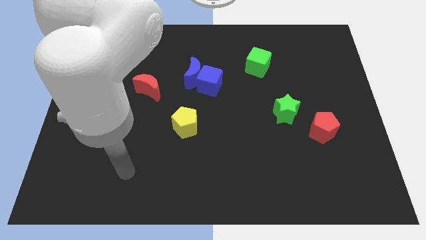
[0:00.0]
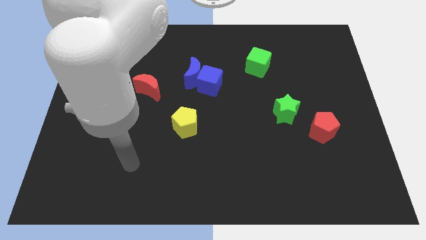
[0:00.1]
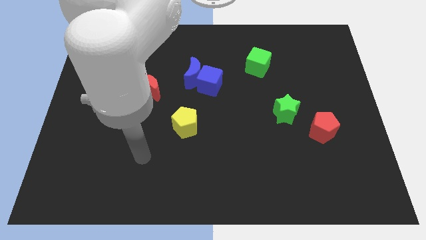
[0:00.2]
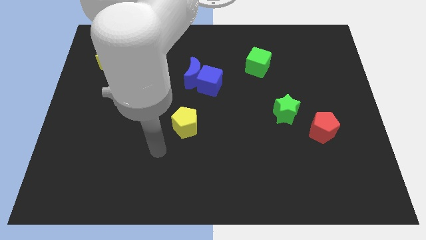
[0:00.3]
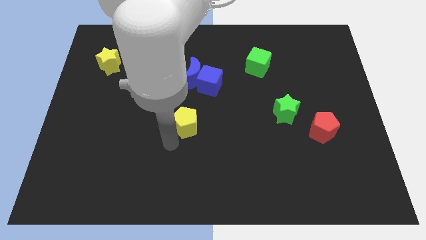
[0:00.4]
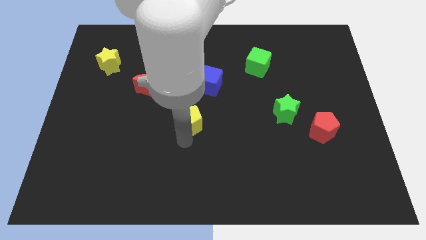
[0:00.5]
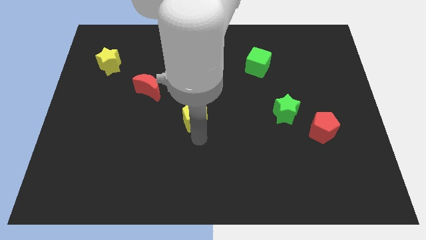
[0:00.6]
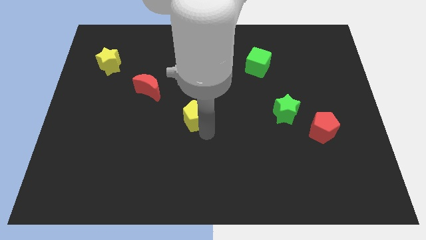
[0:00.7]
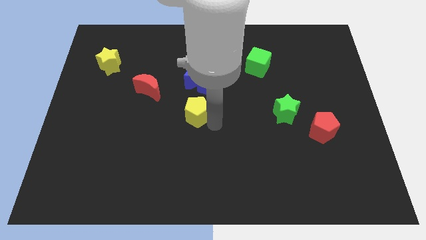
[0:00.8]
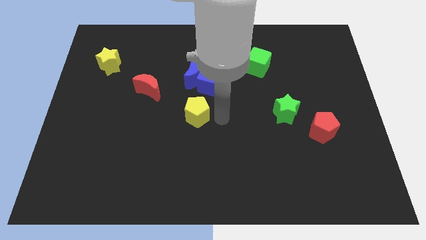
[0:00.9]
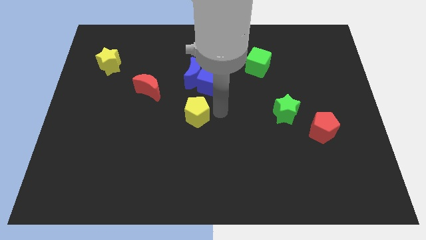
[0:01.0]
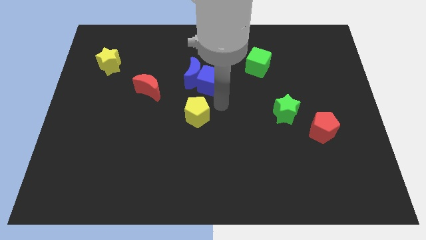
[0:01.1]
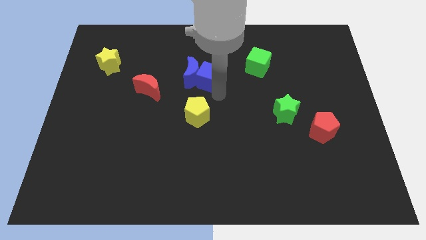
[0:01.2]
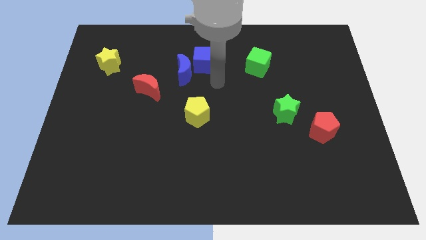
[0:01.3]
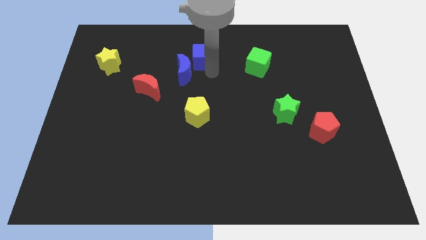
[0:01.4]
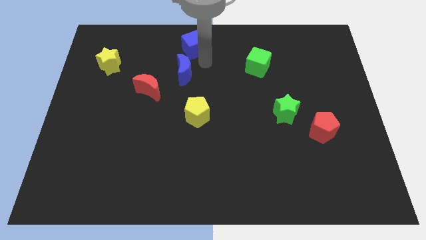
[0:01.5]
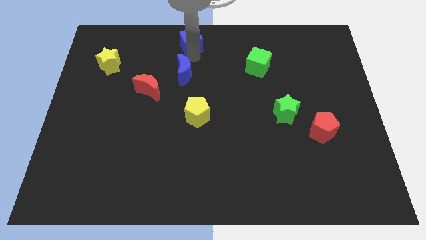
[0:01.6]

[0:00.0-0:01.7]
move the blue moon away from the blue cube

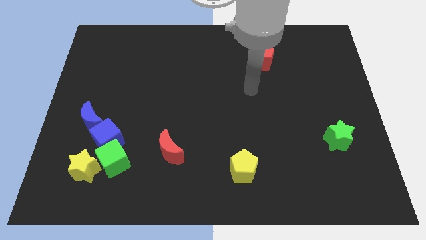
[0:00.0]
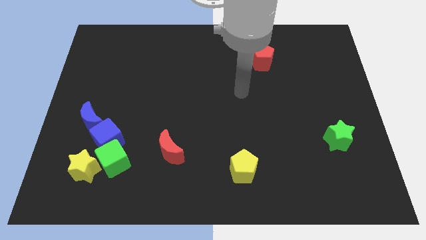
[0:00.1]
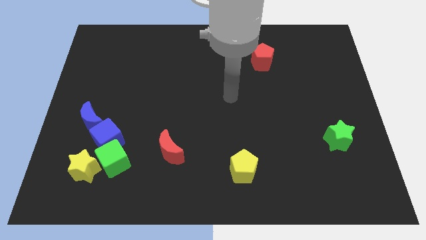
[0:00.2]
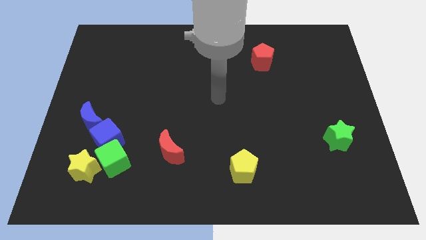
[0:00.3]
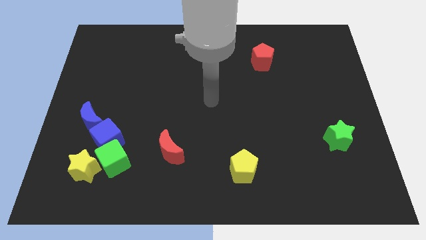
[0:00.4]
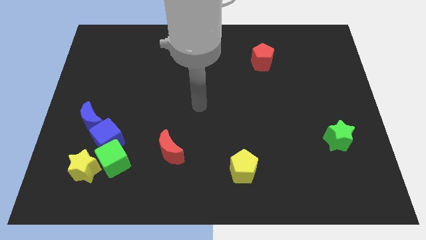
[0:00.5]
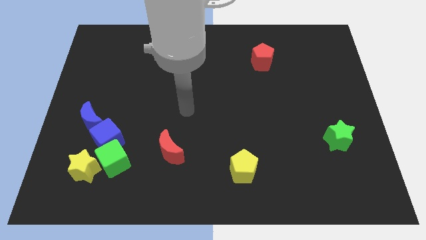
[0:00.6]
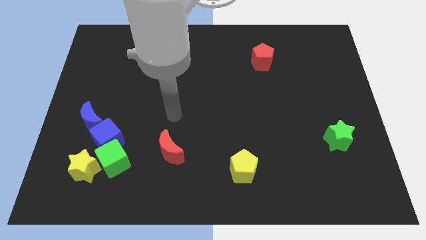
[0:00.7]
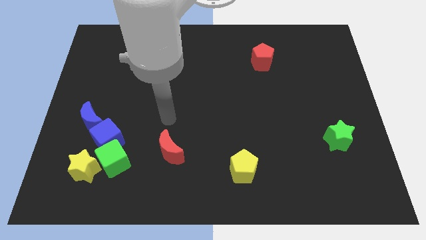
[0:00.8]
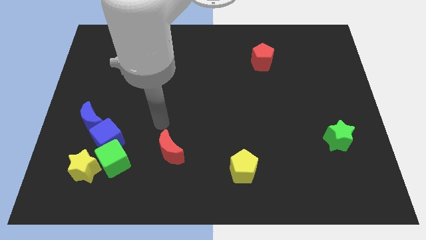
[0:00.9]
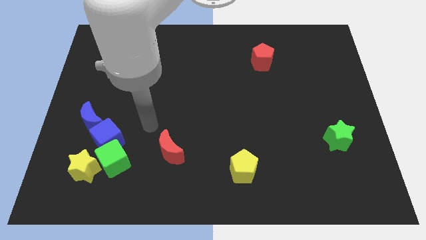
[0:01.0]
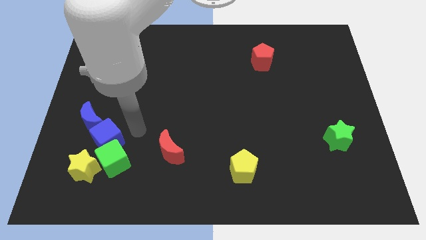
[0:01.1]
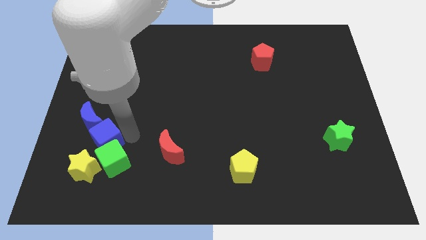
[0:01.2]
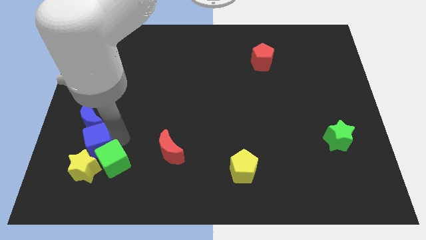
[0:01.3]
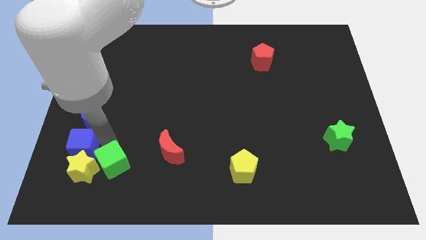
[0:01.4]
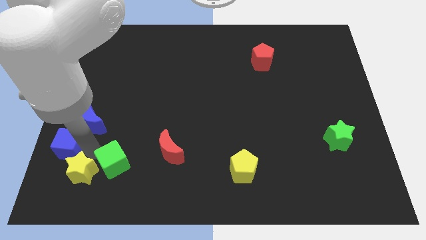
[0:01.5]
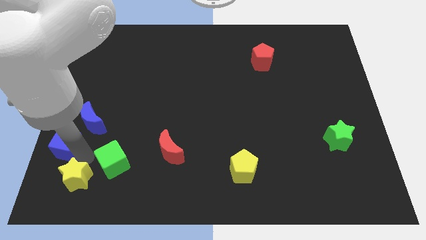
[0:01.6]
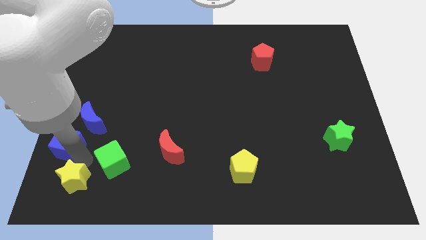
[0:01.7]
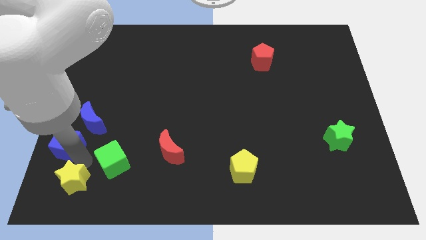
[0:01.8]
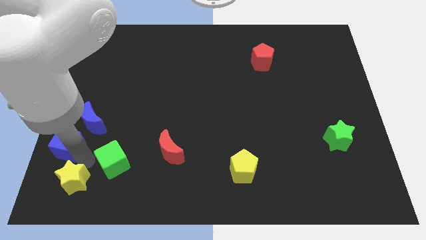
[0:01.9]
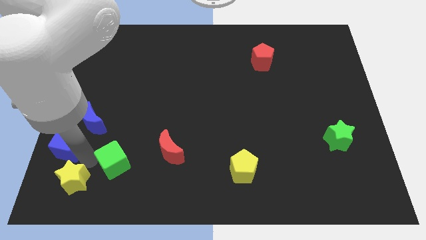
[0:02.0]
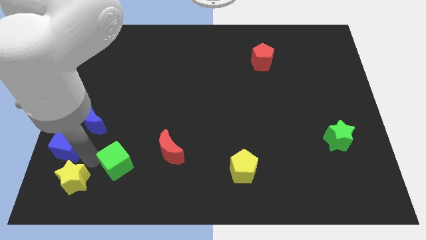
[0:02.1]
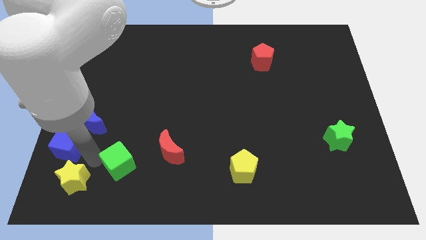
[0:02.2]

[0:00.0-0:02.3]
pull the green cube apart from the blue cube and yellow star

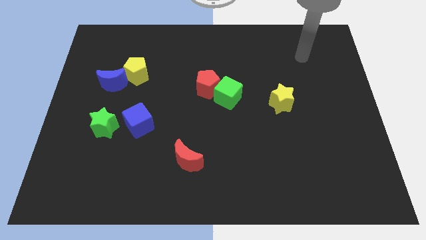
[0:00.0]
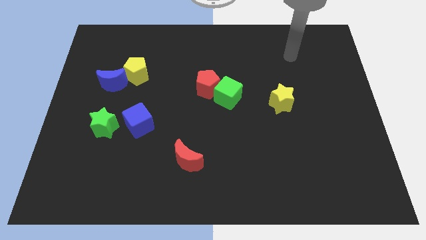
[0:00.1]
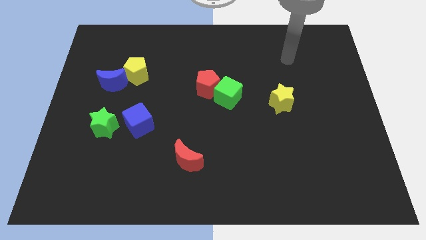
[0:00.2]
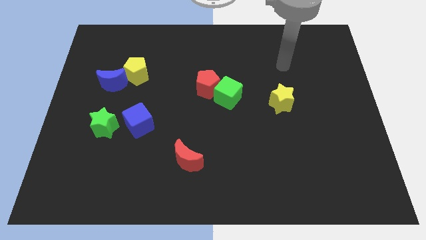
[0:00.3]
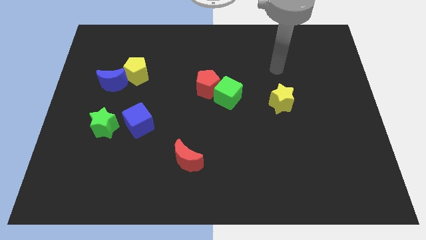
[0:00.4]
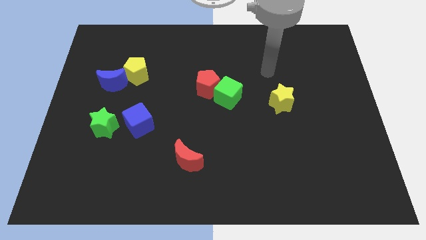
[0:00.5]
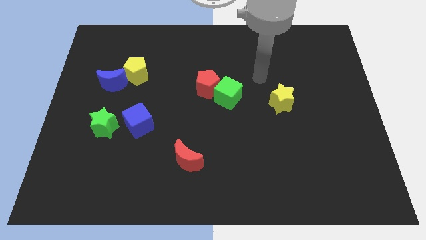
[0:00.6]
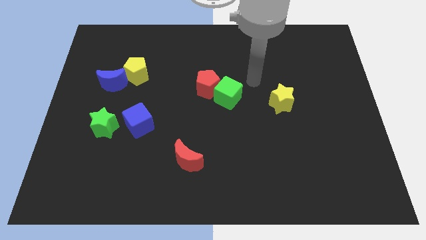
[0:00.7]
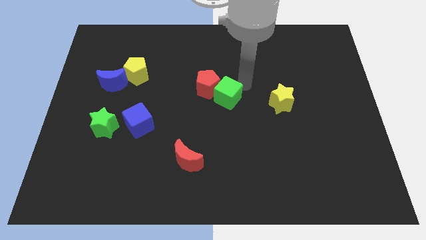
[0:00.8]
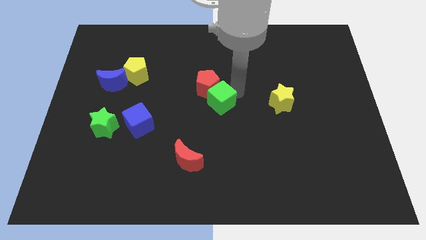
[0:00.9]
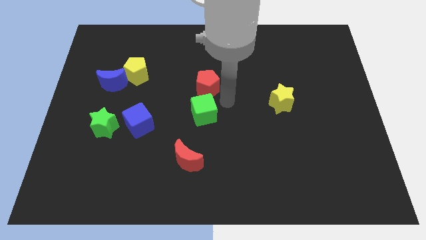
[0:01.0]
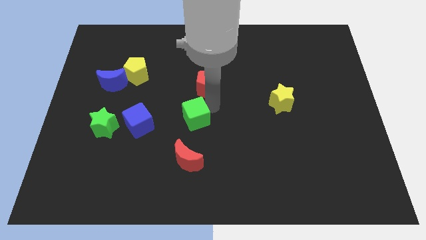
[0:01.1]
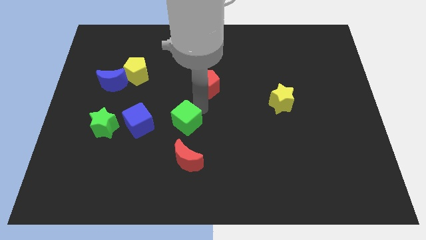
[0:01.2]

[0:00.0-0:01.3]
pull the red pentagon apart from the green cube

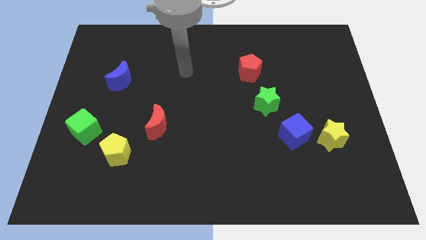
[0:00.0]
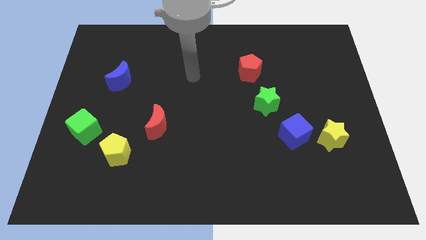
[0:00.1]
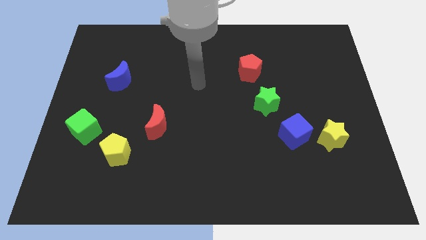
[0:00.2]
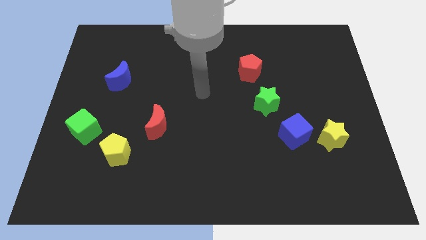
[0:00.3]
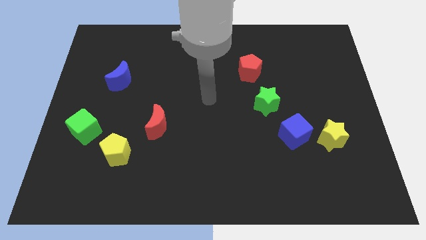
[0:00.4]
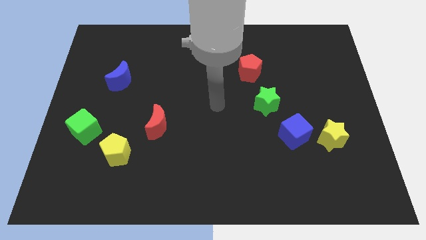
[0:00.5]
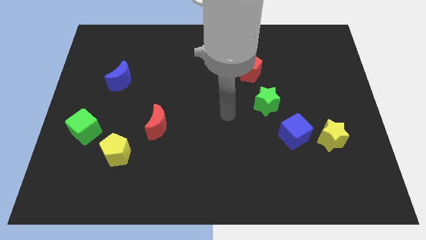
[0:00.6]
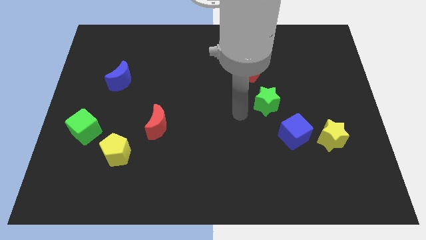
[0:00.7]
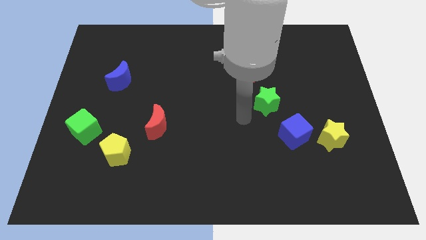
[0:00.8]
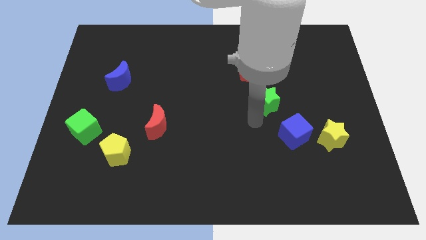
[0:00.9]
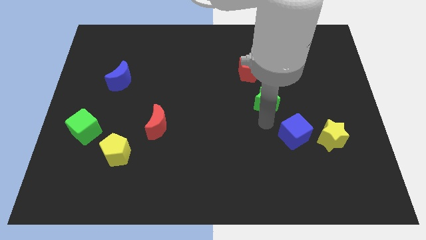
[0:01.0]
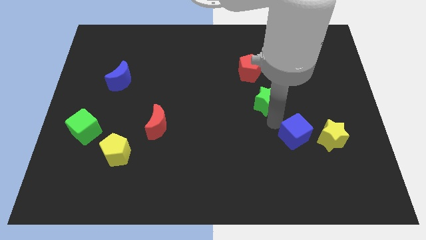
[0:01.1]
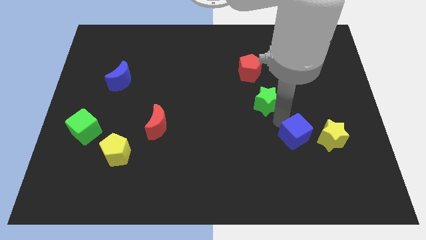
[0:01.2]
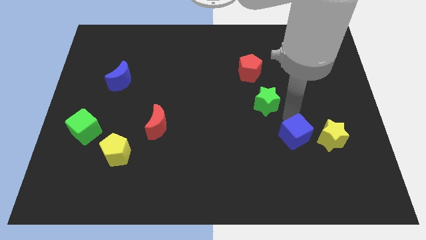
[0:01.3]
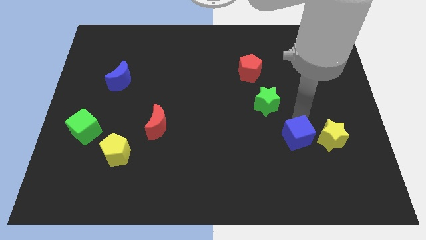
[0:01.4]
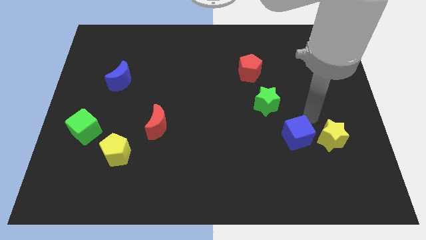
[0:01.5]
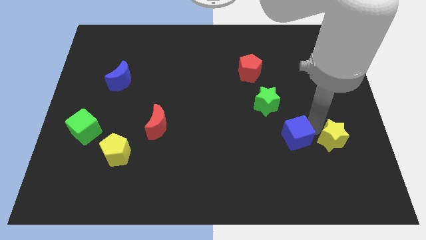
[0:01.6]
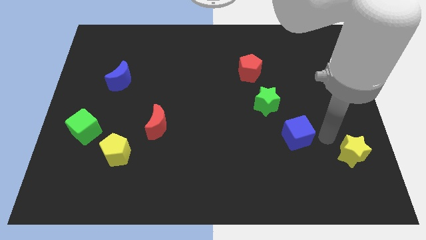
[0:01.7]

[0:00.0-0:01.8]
pull the blue cube apart from the yellow star

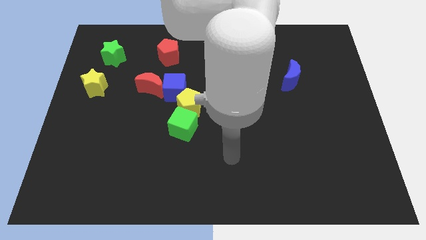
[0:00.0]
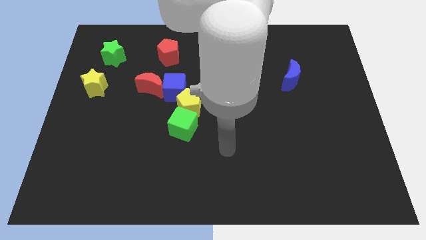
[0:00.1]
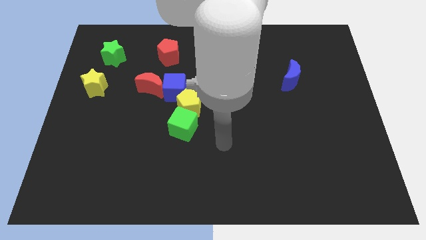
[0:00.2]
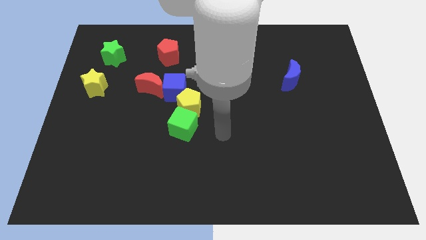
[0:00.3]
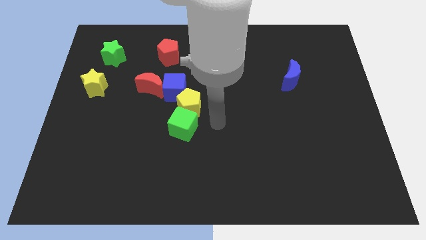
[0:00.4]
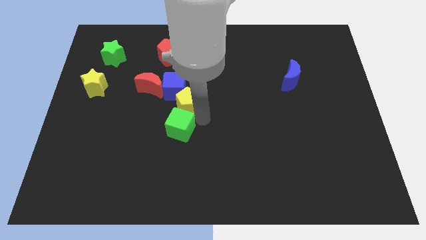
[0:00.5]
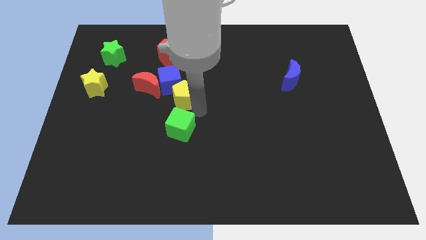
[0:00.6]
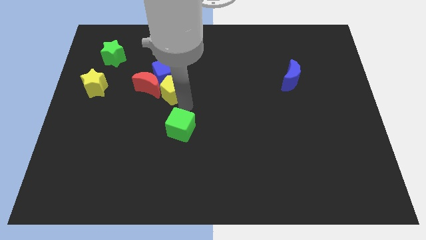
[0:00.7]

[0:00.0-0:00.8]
separate the green cube from the yellow pentagon

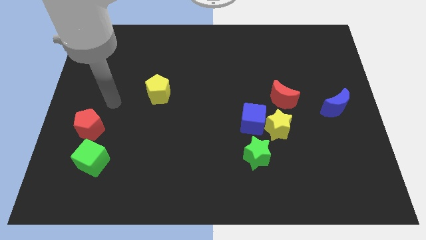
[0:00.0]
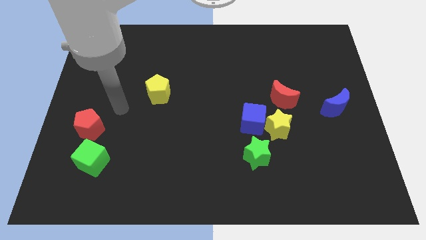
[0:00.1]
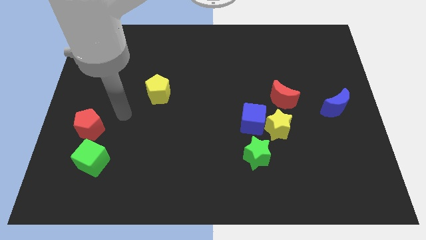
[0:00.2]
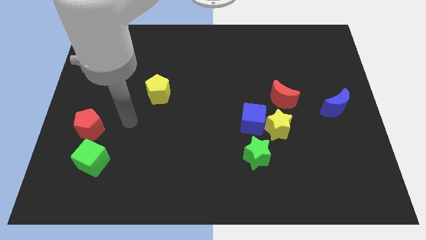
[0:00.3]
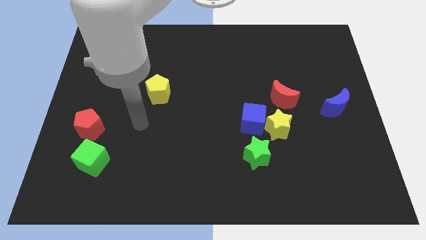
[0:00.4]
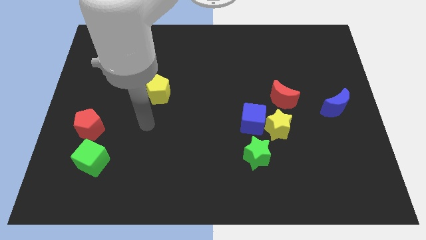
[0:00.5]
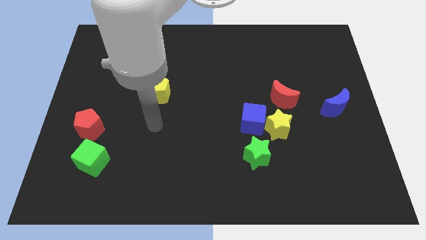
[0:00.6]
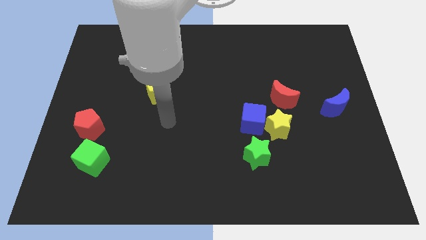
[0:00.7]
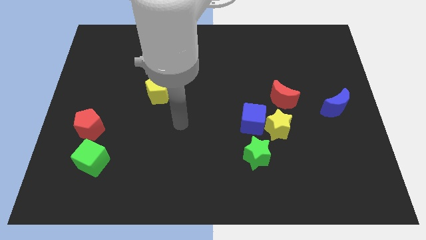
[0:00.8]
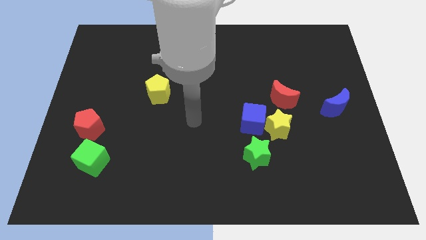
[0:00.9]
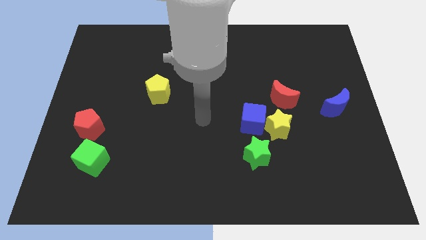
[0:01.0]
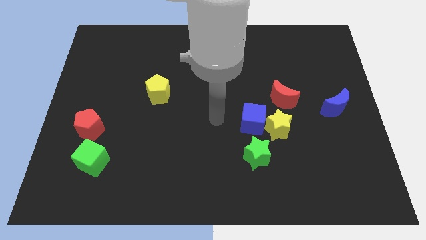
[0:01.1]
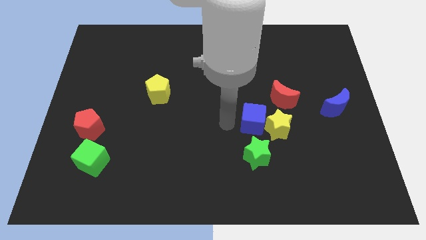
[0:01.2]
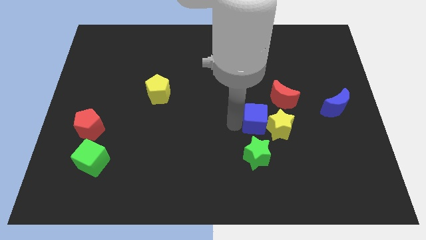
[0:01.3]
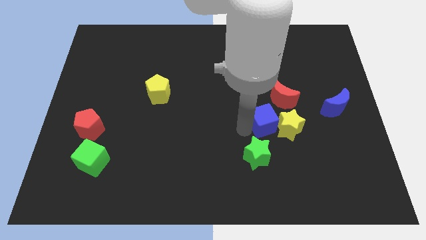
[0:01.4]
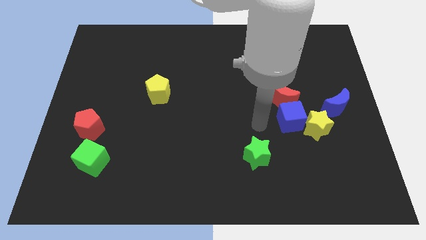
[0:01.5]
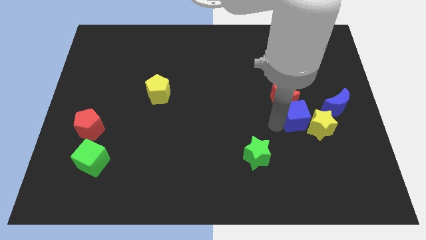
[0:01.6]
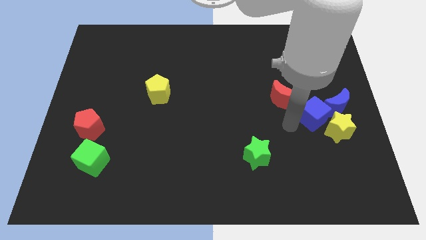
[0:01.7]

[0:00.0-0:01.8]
move the yellow star away from the blue cube, red moon, and green star
